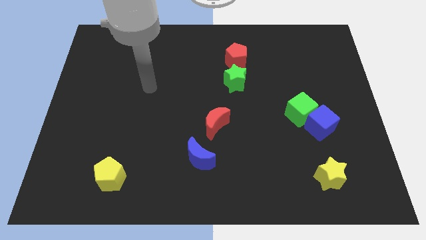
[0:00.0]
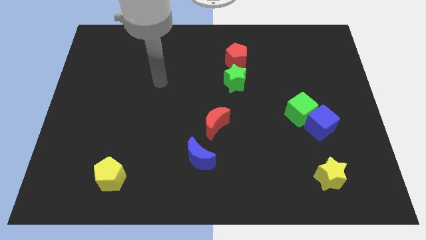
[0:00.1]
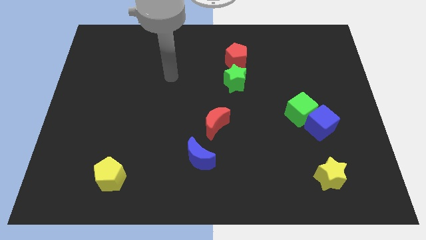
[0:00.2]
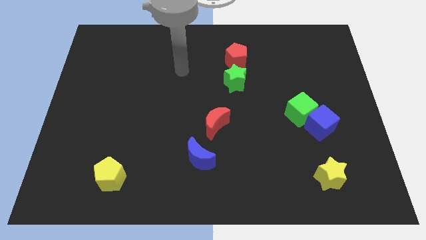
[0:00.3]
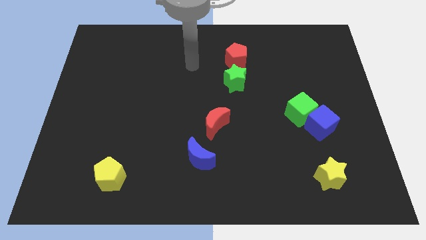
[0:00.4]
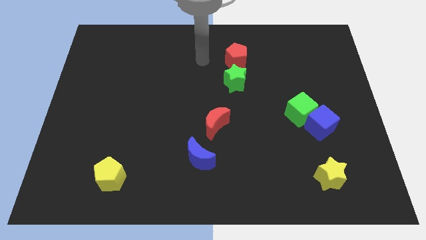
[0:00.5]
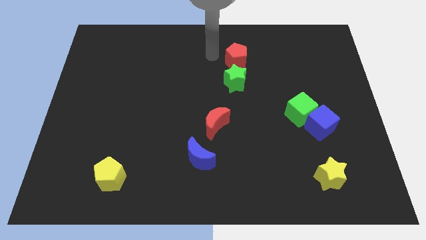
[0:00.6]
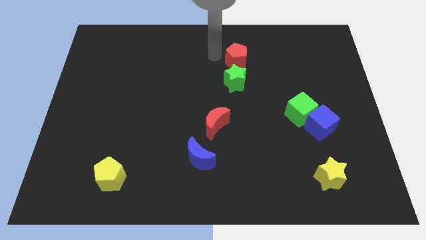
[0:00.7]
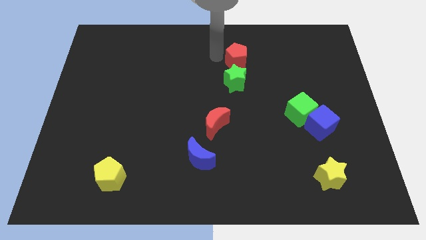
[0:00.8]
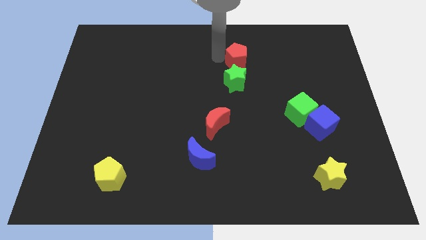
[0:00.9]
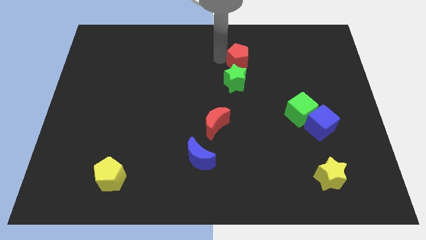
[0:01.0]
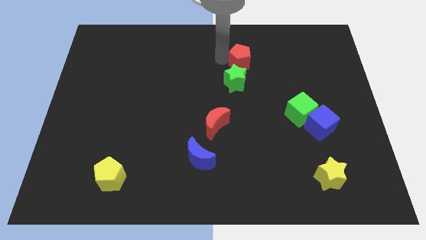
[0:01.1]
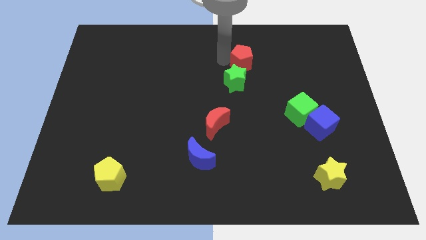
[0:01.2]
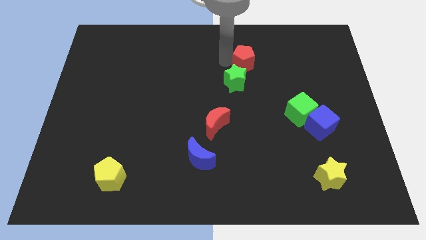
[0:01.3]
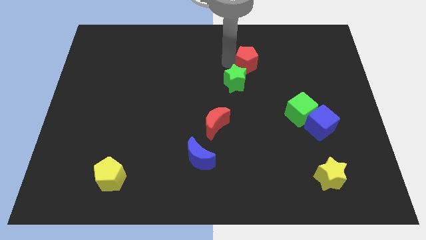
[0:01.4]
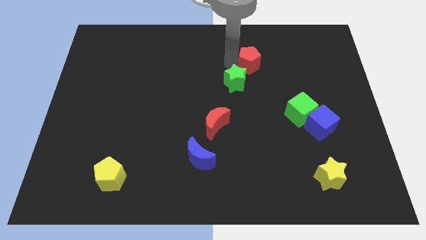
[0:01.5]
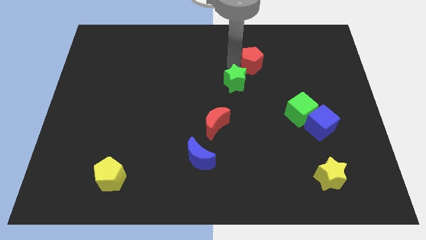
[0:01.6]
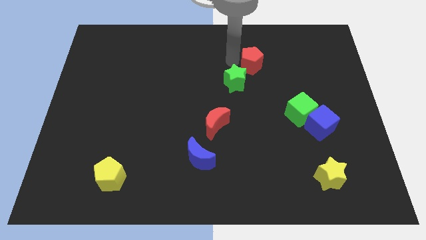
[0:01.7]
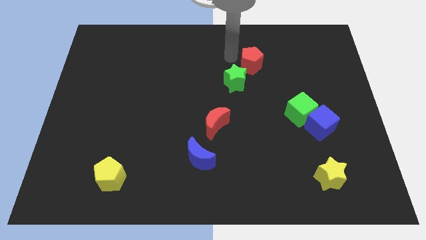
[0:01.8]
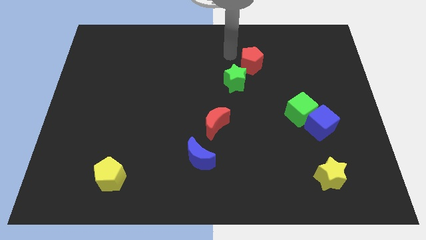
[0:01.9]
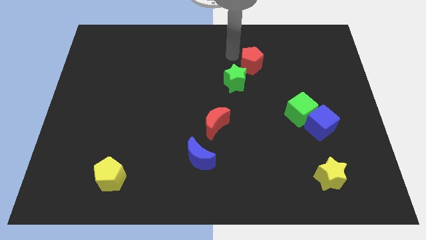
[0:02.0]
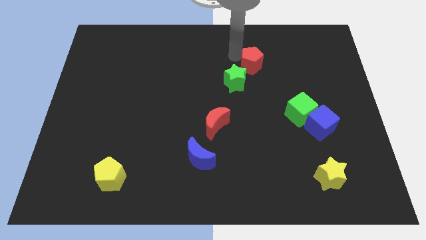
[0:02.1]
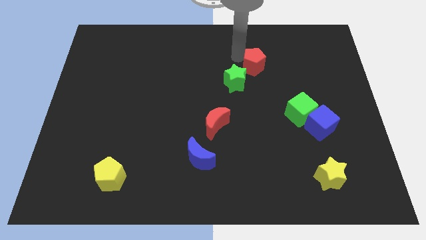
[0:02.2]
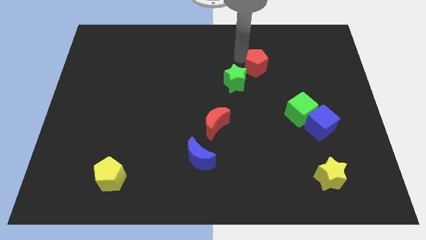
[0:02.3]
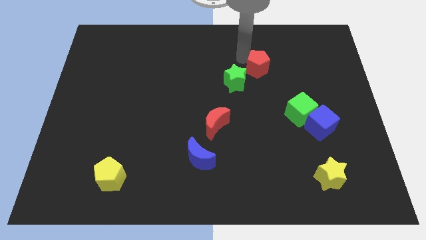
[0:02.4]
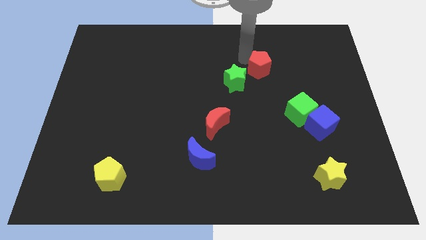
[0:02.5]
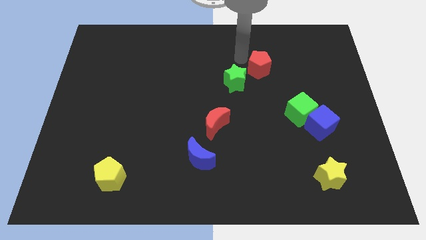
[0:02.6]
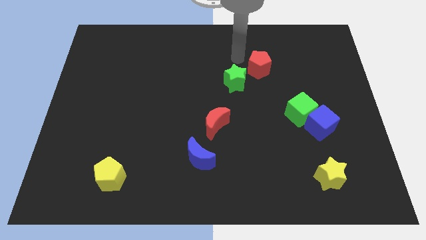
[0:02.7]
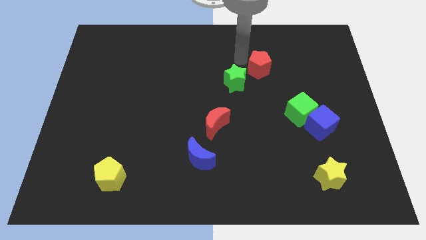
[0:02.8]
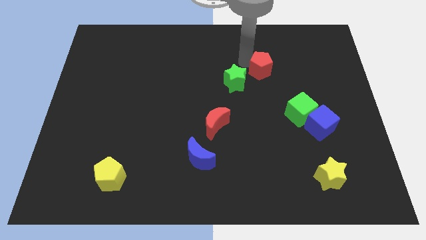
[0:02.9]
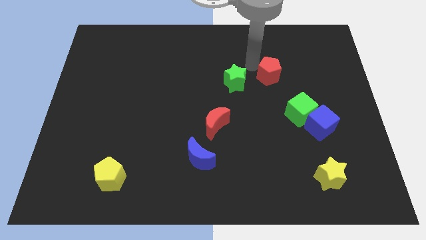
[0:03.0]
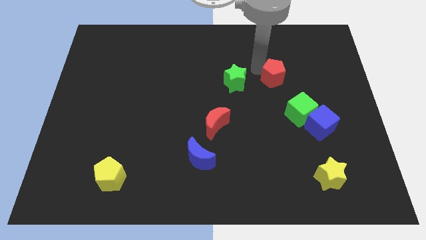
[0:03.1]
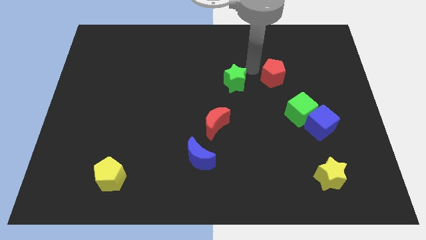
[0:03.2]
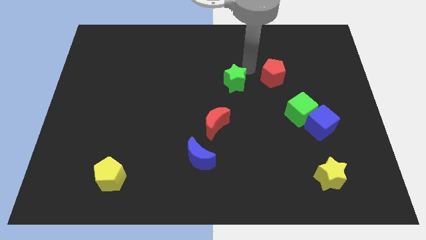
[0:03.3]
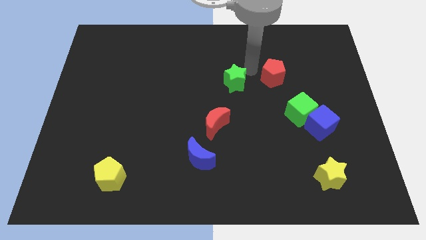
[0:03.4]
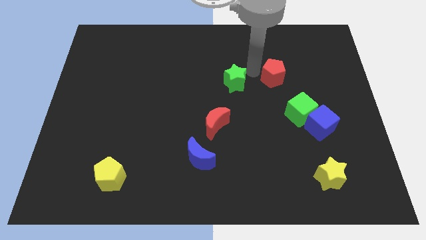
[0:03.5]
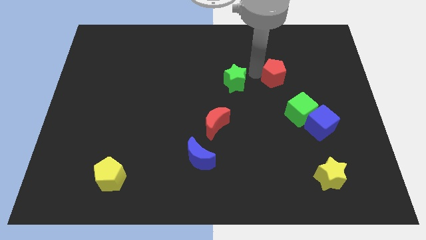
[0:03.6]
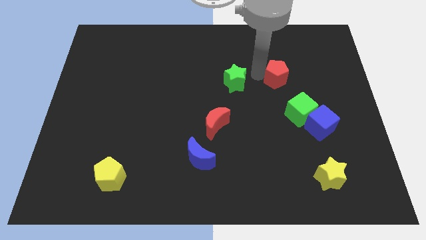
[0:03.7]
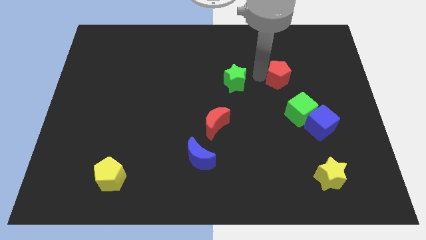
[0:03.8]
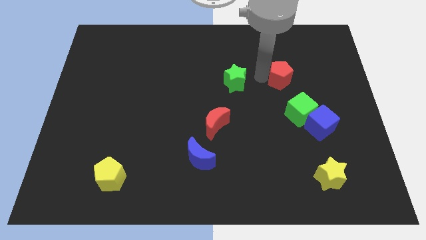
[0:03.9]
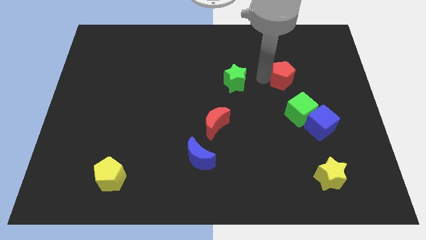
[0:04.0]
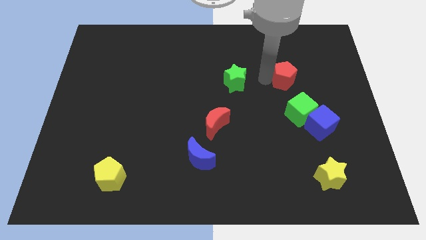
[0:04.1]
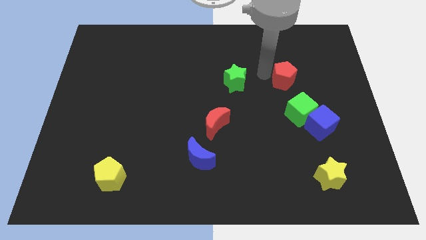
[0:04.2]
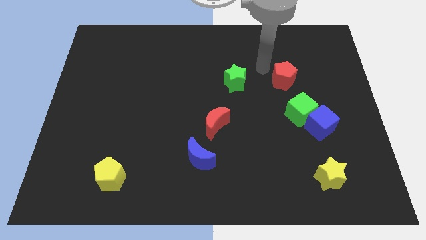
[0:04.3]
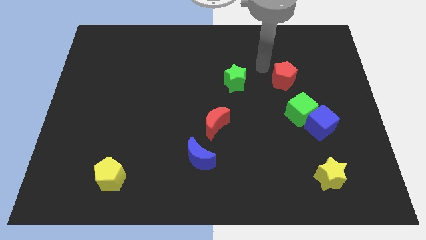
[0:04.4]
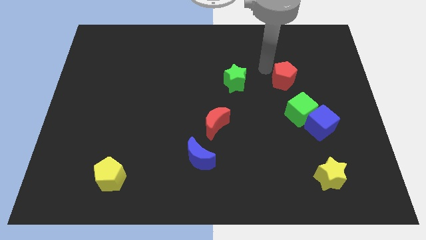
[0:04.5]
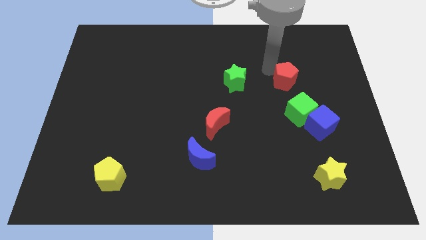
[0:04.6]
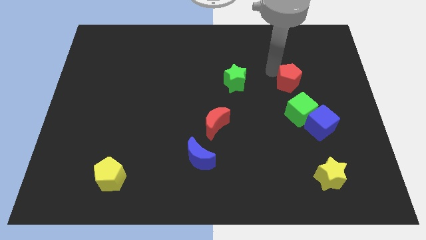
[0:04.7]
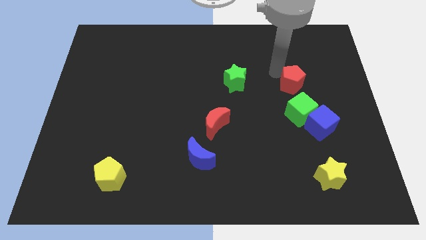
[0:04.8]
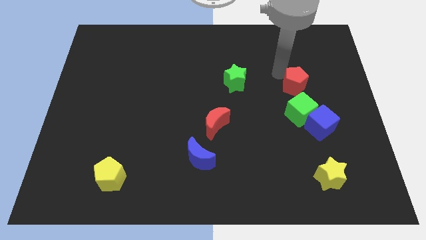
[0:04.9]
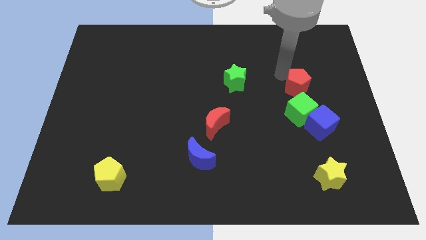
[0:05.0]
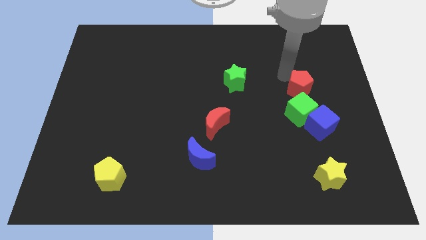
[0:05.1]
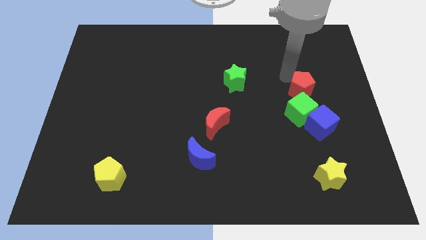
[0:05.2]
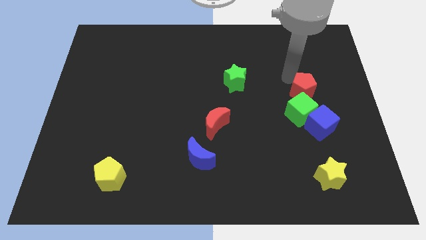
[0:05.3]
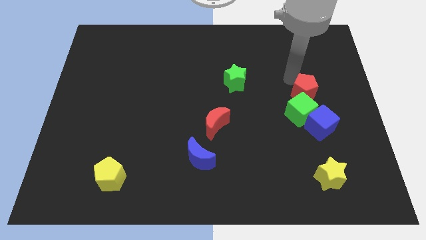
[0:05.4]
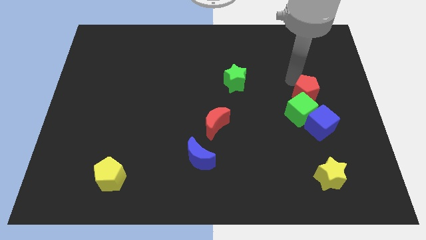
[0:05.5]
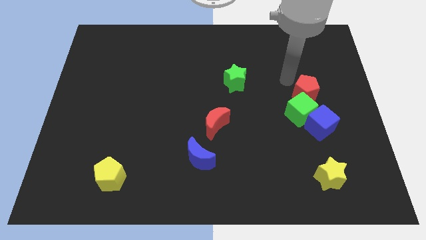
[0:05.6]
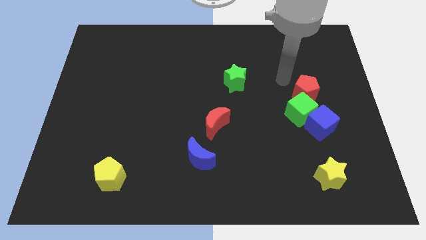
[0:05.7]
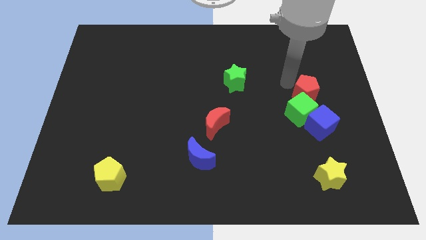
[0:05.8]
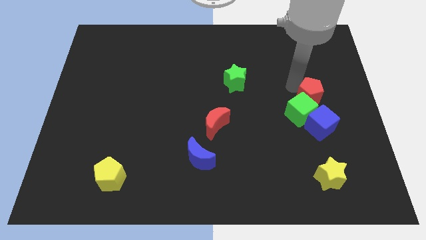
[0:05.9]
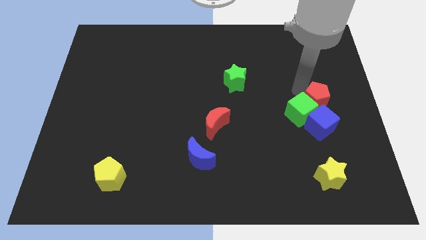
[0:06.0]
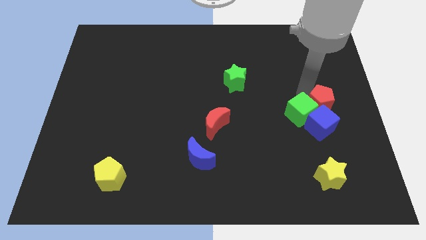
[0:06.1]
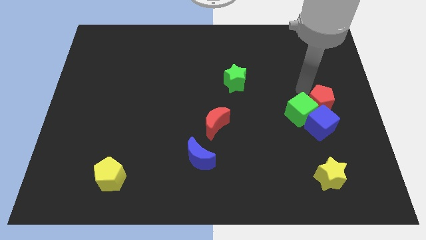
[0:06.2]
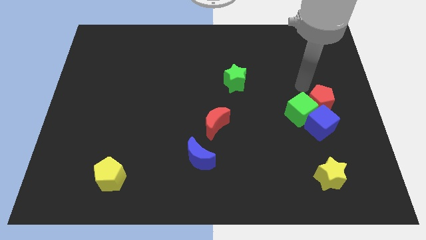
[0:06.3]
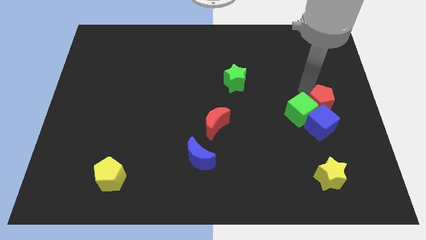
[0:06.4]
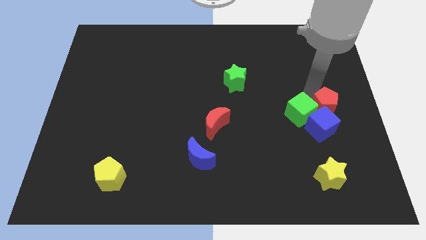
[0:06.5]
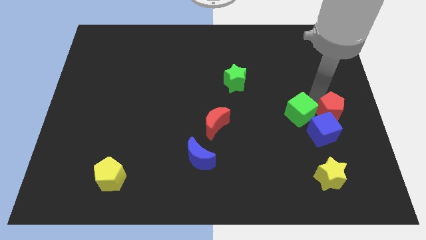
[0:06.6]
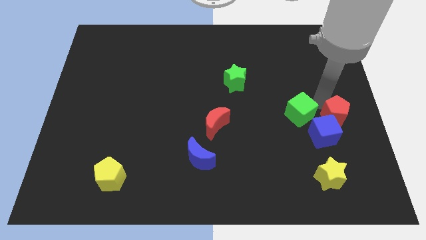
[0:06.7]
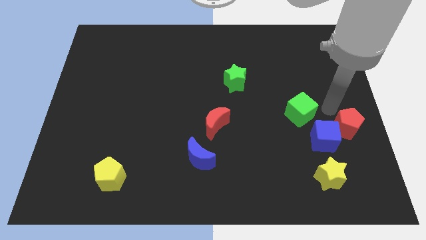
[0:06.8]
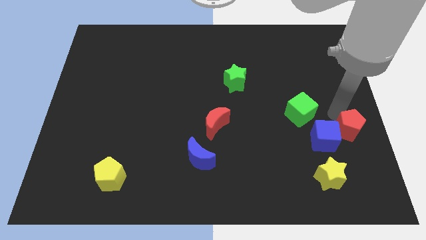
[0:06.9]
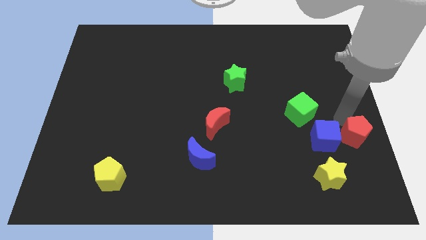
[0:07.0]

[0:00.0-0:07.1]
push the red pentagon diagonally up and to the right of the yellow star
